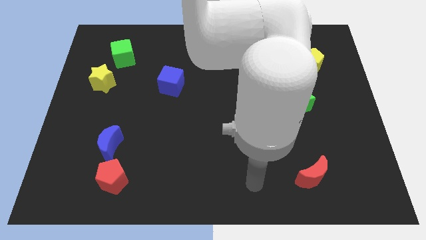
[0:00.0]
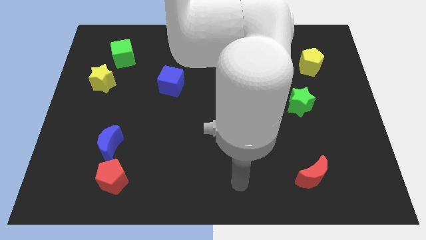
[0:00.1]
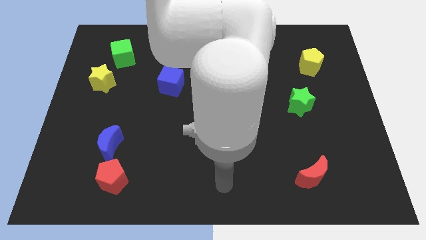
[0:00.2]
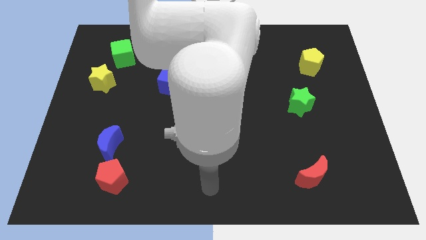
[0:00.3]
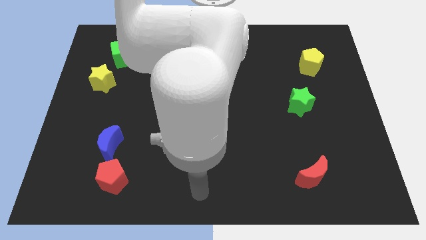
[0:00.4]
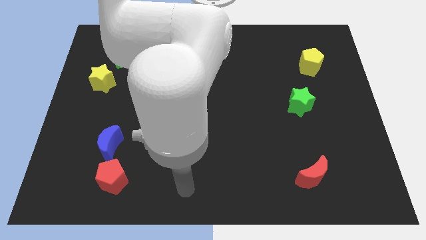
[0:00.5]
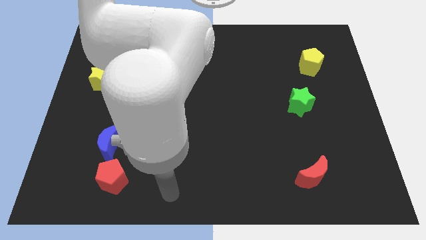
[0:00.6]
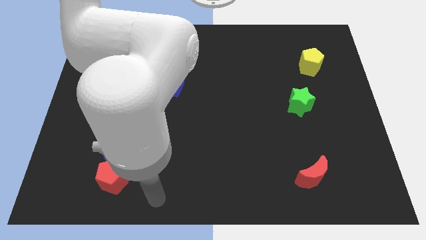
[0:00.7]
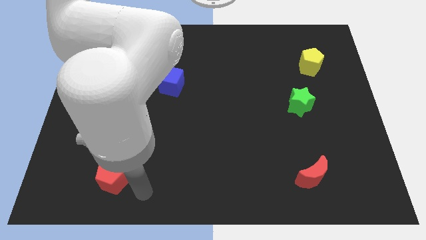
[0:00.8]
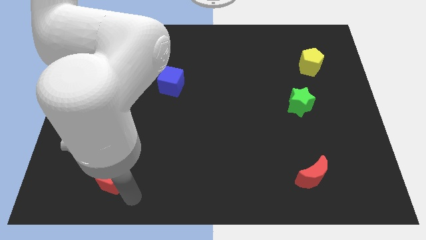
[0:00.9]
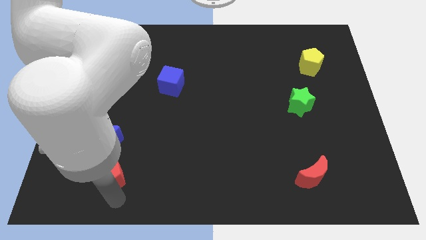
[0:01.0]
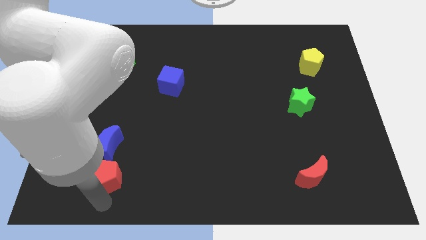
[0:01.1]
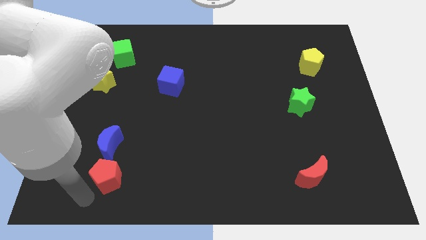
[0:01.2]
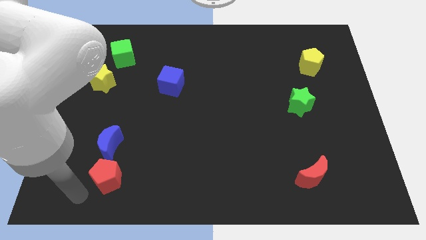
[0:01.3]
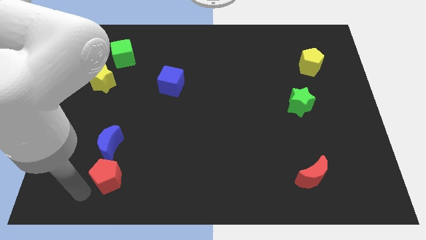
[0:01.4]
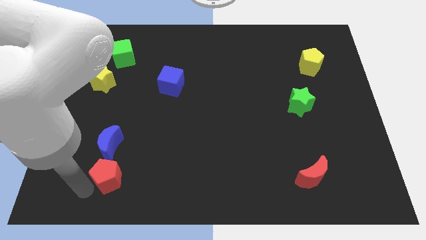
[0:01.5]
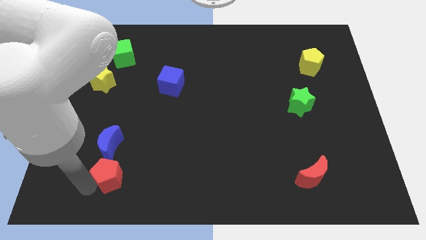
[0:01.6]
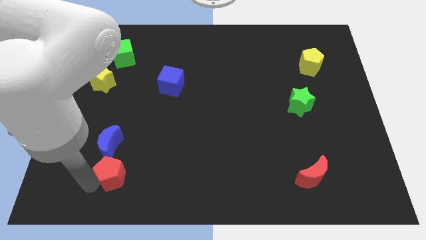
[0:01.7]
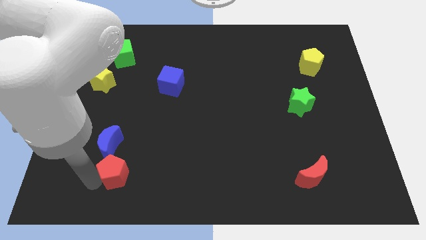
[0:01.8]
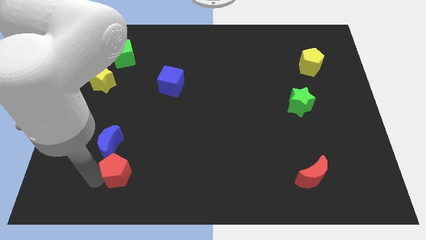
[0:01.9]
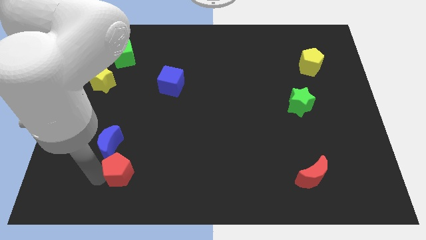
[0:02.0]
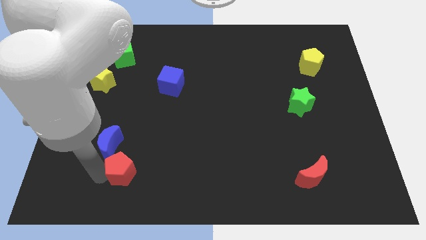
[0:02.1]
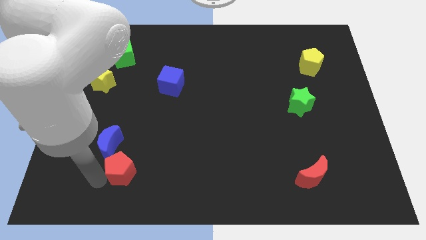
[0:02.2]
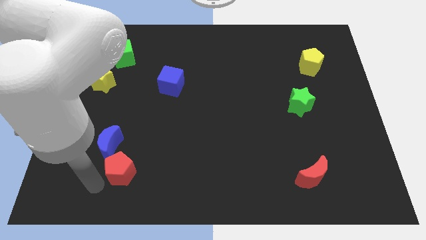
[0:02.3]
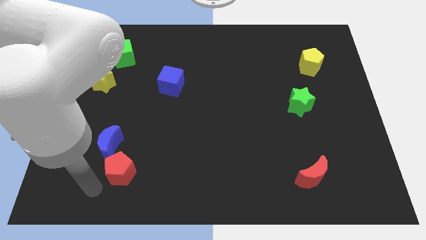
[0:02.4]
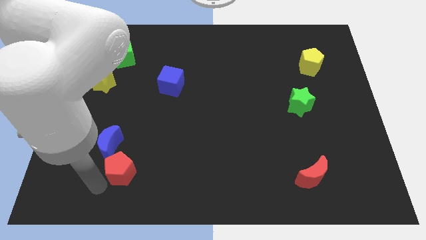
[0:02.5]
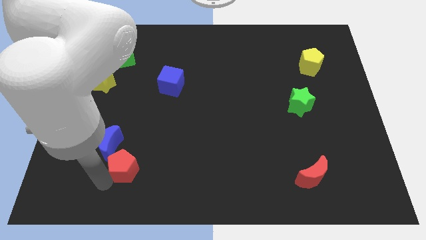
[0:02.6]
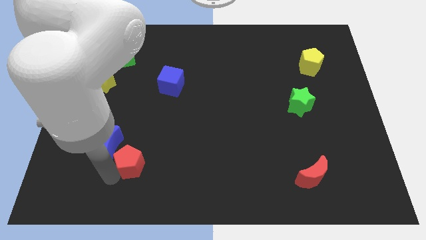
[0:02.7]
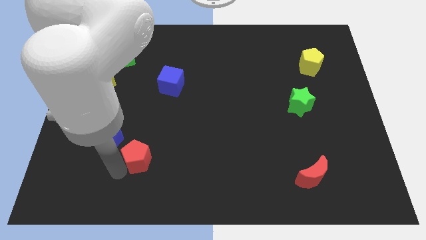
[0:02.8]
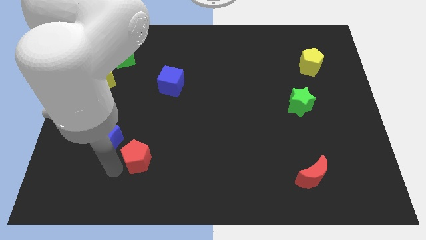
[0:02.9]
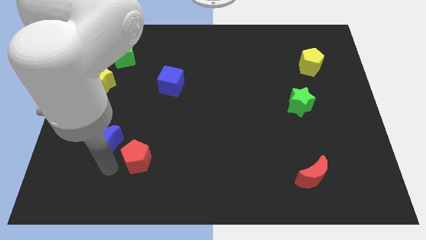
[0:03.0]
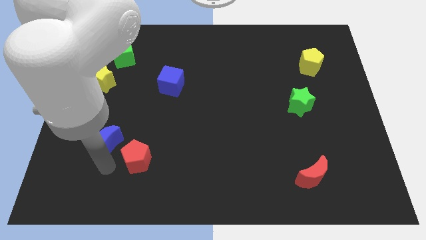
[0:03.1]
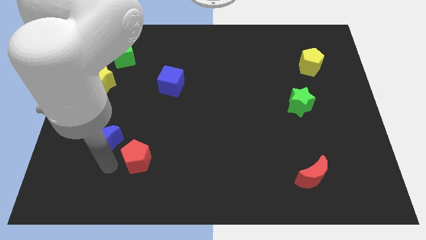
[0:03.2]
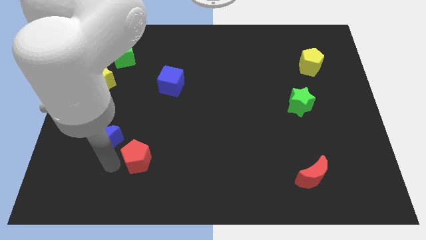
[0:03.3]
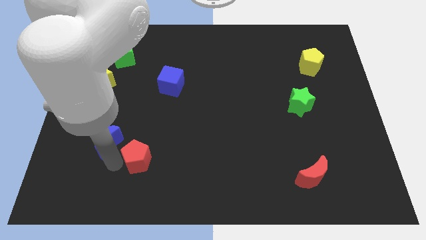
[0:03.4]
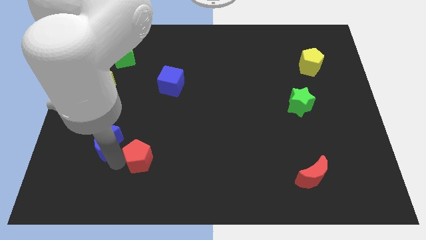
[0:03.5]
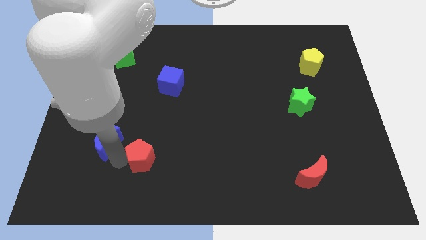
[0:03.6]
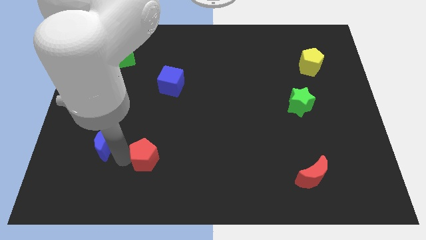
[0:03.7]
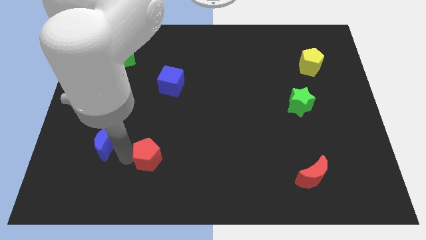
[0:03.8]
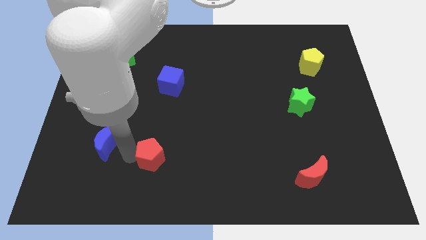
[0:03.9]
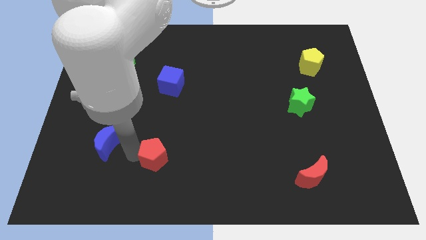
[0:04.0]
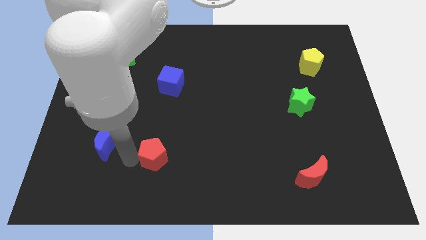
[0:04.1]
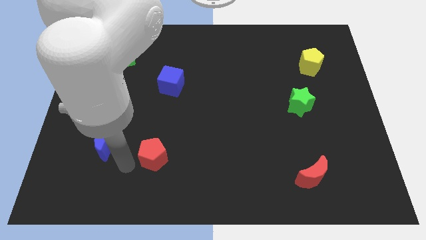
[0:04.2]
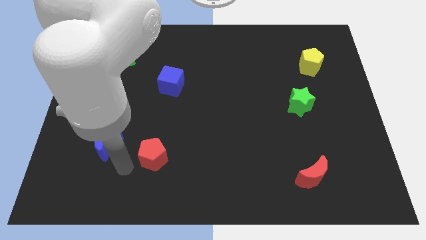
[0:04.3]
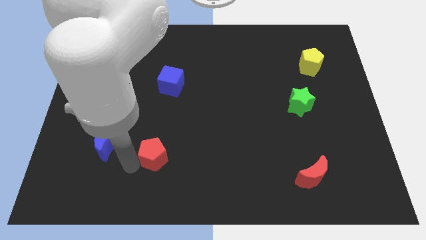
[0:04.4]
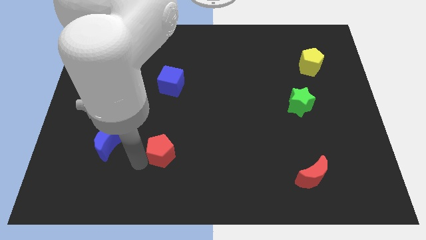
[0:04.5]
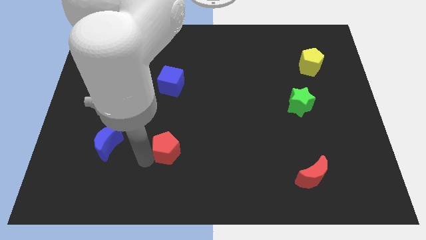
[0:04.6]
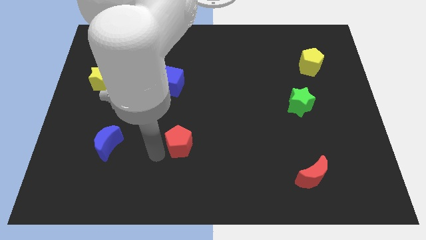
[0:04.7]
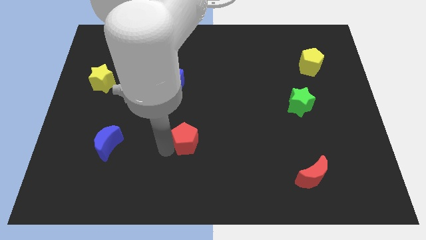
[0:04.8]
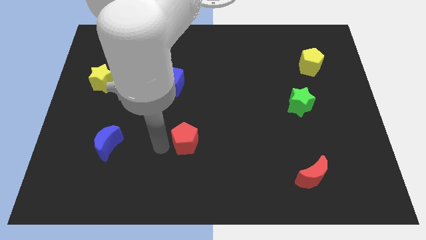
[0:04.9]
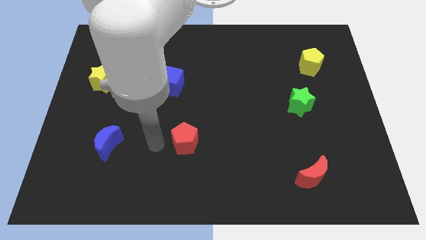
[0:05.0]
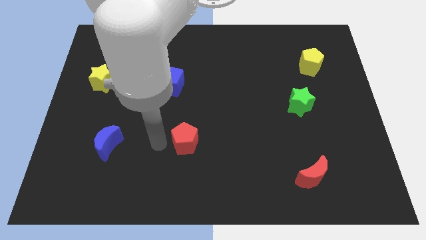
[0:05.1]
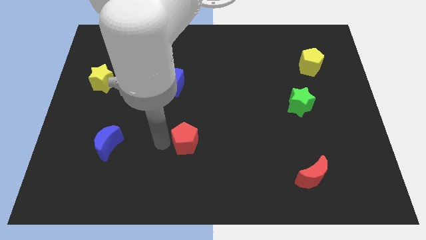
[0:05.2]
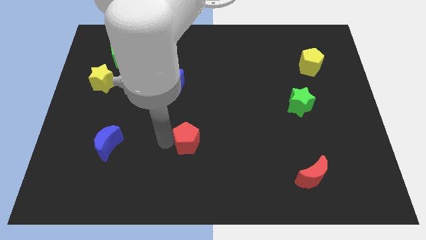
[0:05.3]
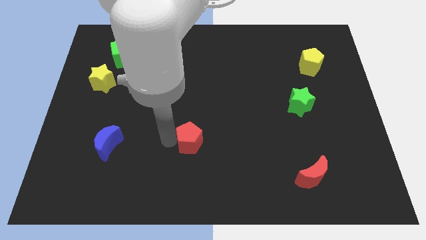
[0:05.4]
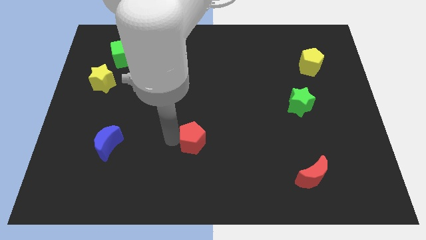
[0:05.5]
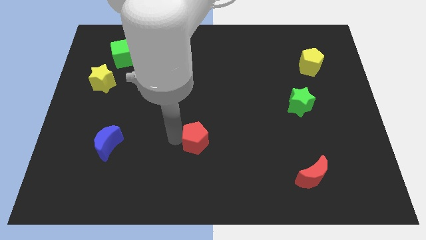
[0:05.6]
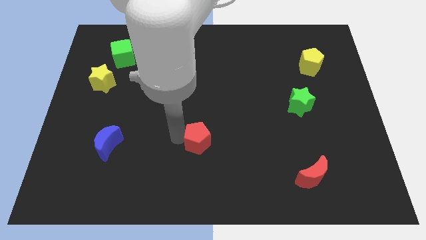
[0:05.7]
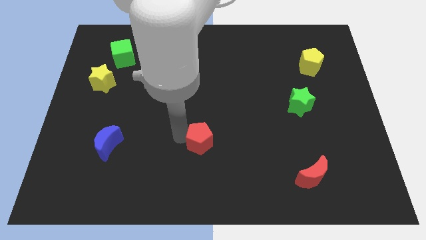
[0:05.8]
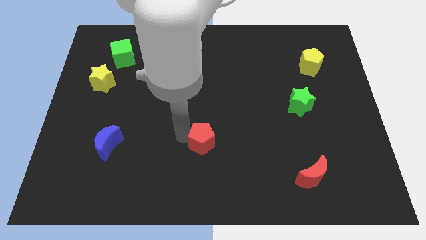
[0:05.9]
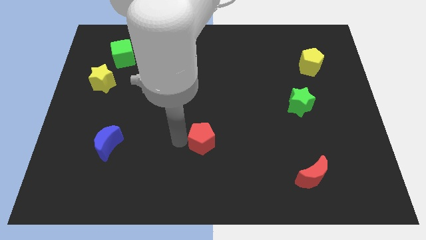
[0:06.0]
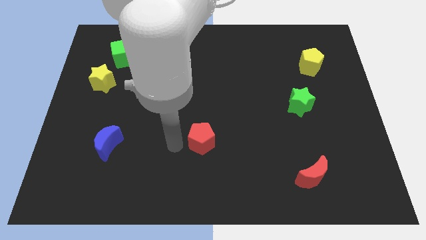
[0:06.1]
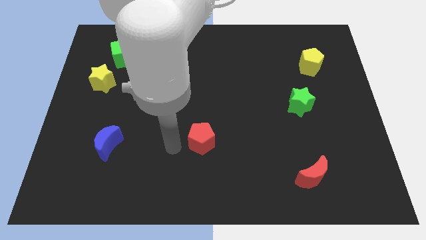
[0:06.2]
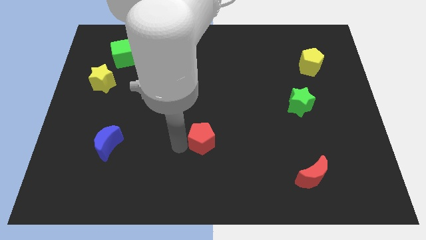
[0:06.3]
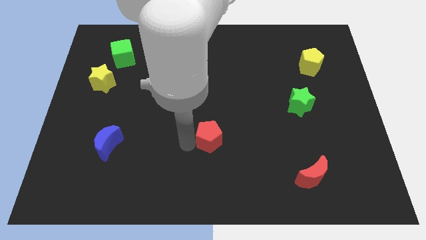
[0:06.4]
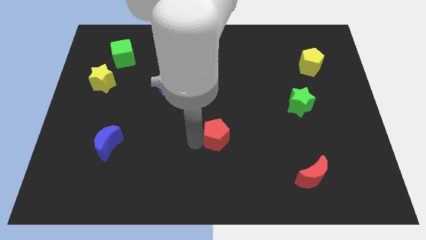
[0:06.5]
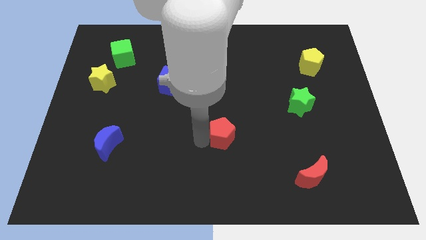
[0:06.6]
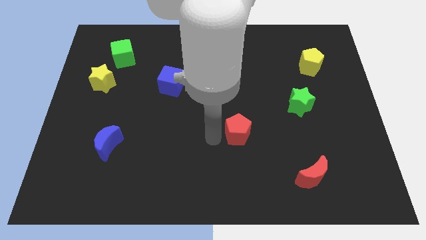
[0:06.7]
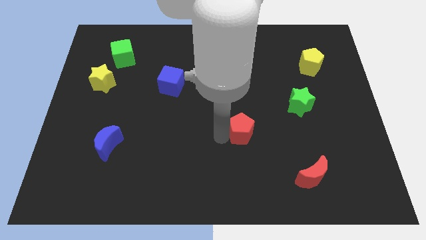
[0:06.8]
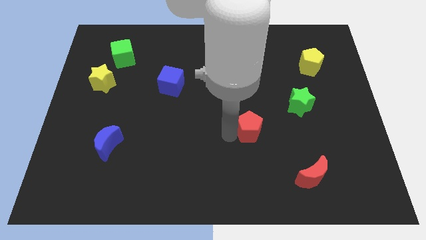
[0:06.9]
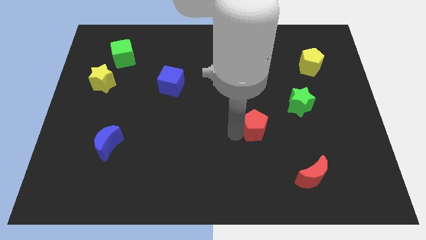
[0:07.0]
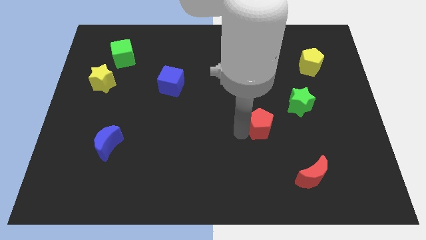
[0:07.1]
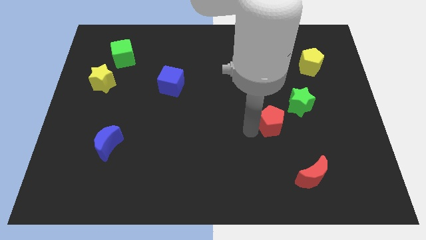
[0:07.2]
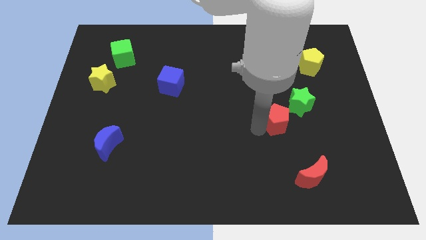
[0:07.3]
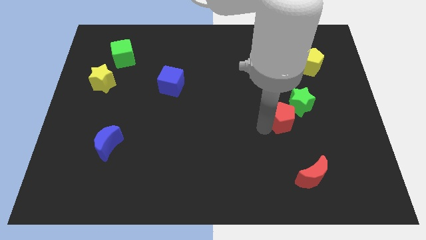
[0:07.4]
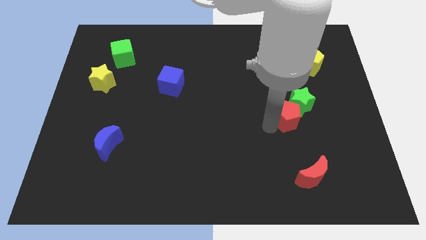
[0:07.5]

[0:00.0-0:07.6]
put the red pentagon close to the green star
